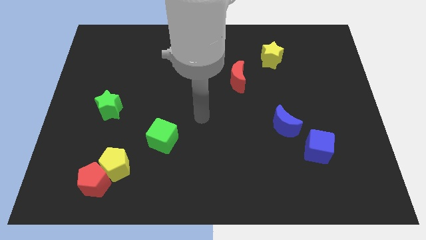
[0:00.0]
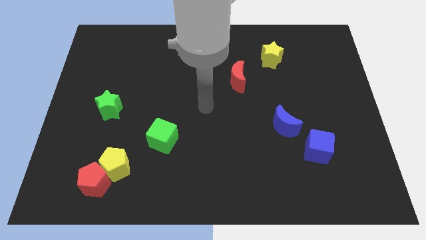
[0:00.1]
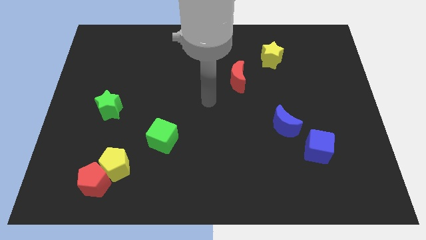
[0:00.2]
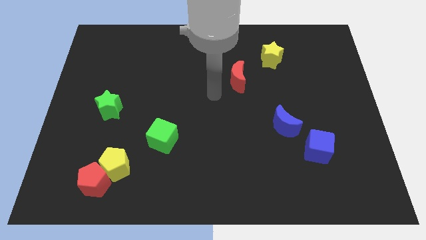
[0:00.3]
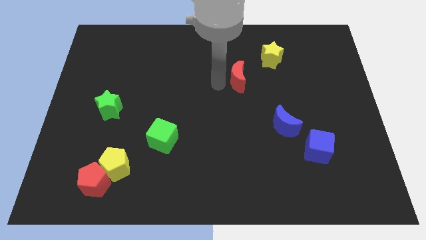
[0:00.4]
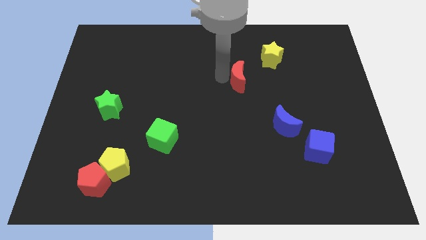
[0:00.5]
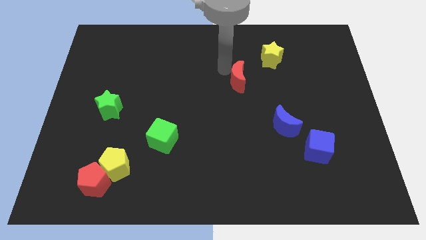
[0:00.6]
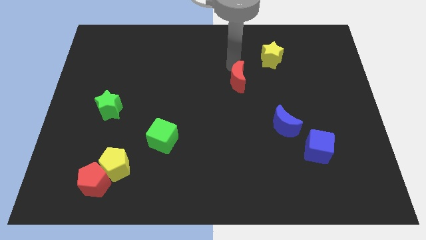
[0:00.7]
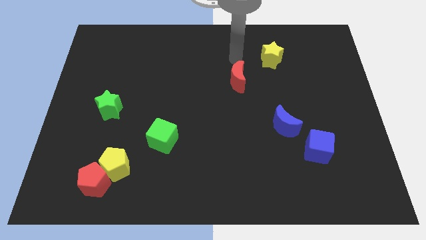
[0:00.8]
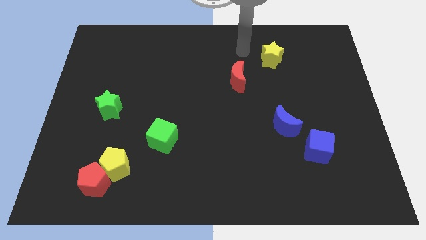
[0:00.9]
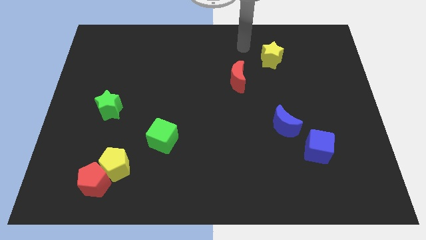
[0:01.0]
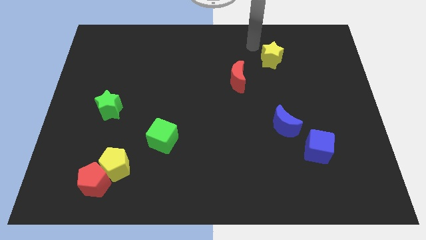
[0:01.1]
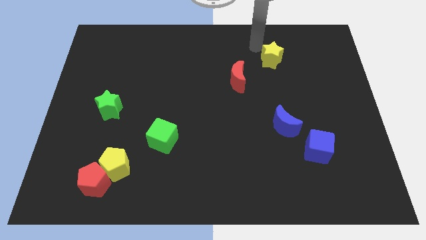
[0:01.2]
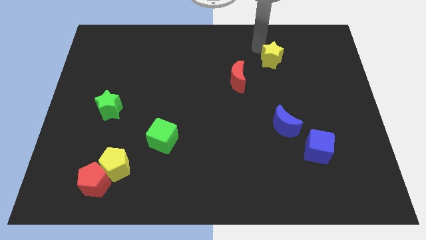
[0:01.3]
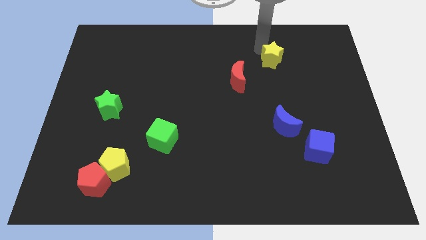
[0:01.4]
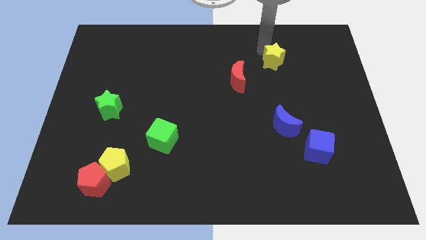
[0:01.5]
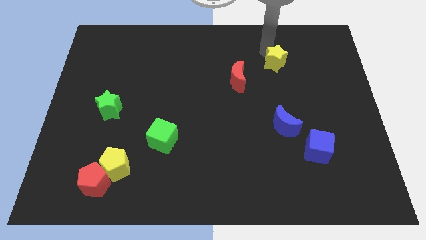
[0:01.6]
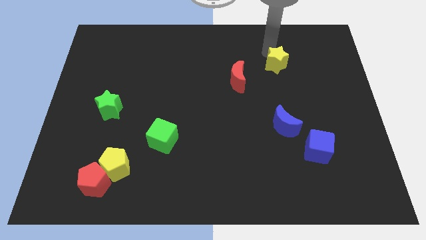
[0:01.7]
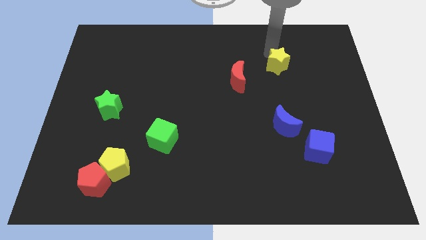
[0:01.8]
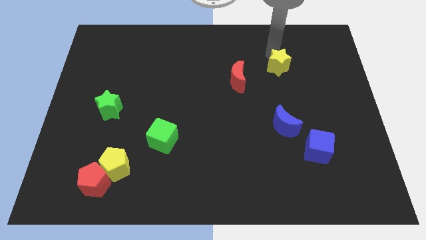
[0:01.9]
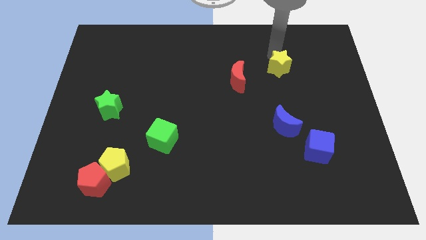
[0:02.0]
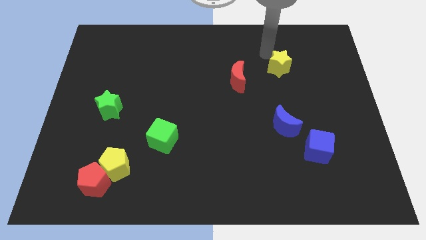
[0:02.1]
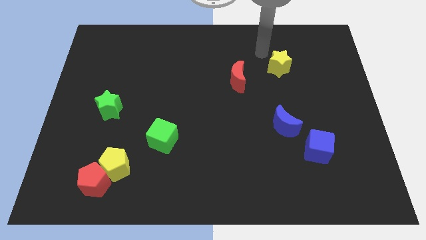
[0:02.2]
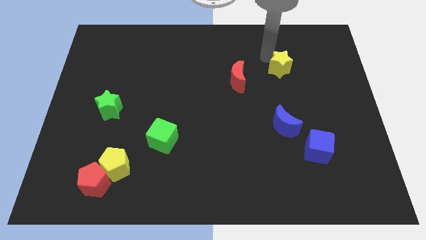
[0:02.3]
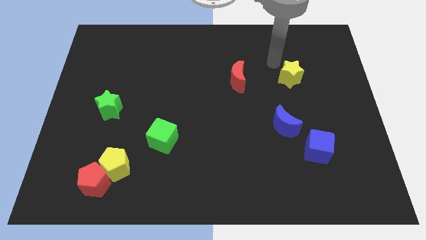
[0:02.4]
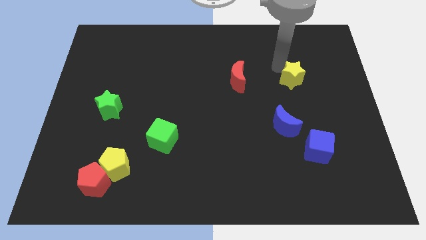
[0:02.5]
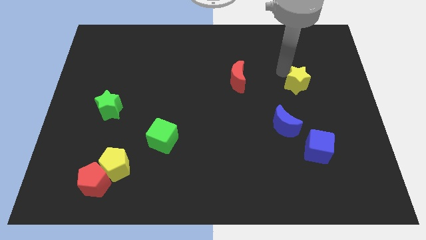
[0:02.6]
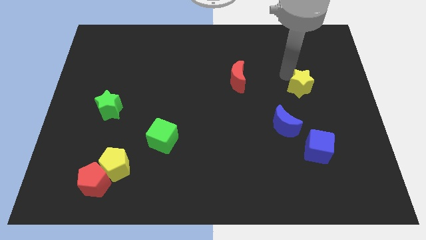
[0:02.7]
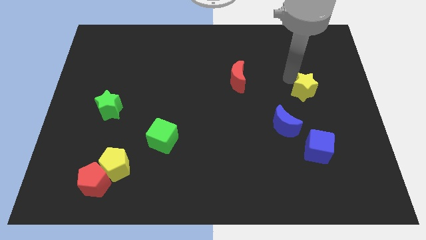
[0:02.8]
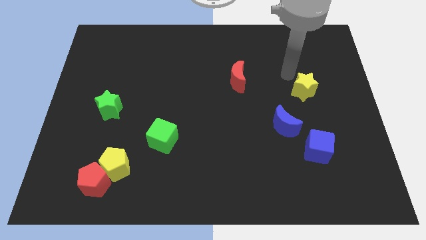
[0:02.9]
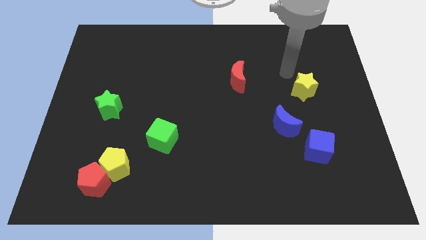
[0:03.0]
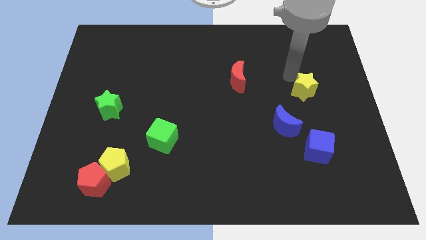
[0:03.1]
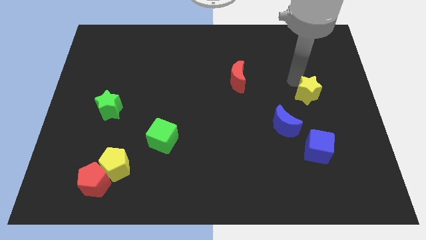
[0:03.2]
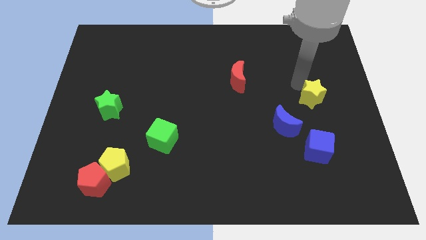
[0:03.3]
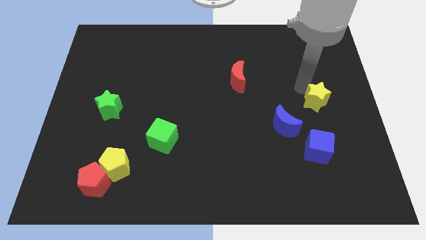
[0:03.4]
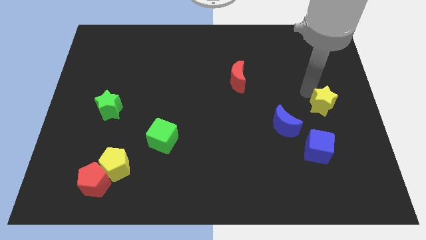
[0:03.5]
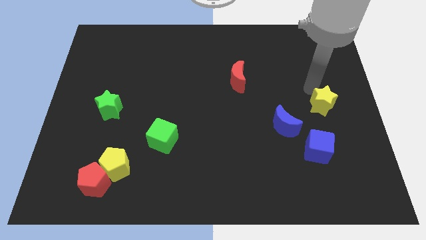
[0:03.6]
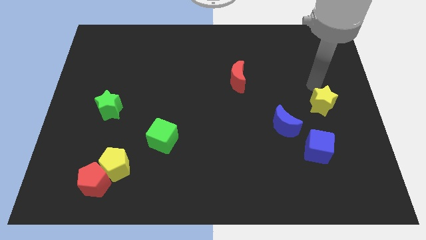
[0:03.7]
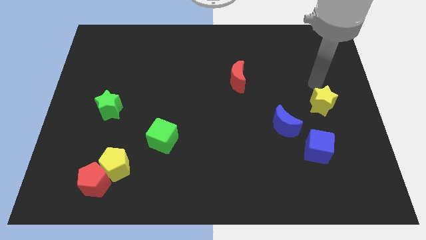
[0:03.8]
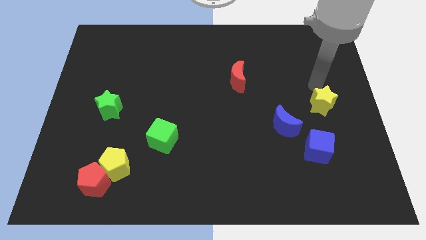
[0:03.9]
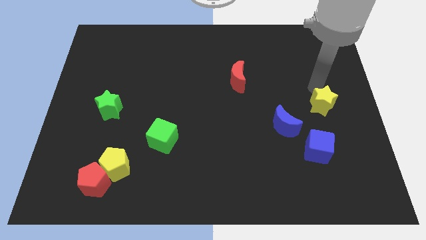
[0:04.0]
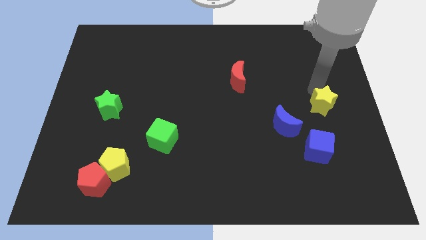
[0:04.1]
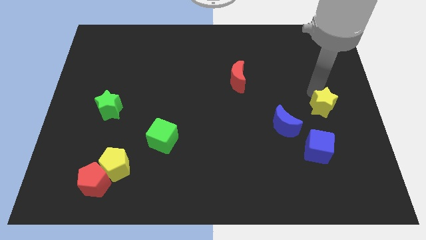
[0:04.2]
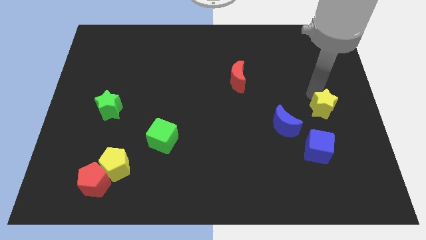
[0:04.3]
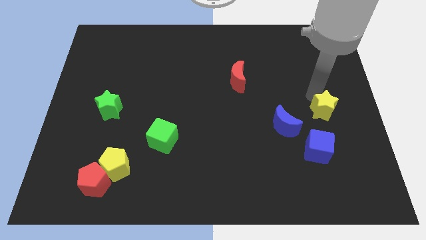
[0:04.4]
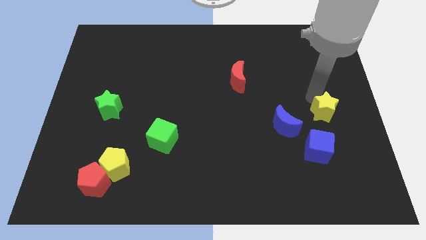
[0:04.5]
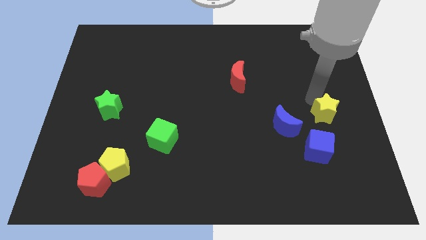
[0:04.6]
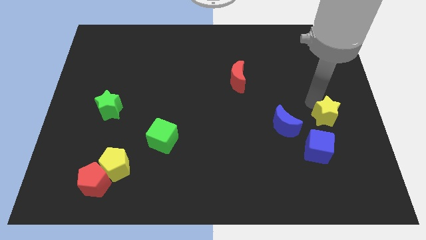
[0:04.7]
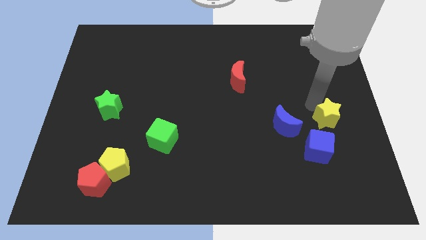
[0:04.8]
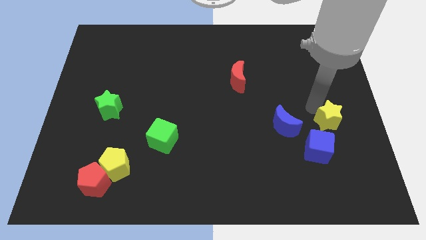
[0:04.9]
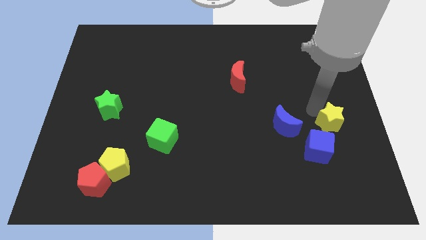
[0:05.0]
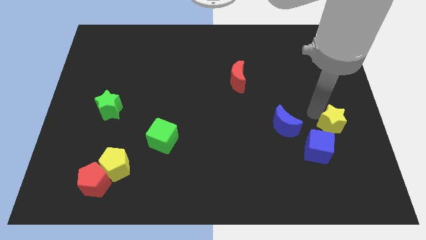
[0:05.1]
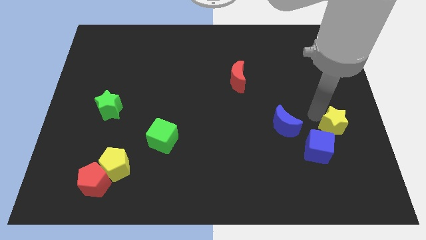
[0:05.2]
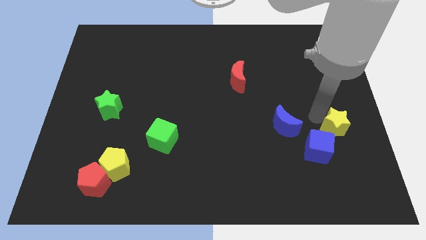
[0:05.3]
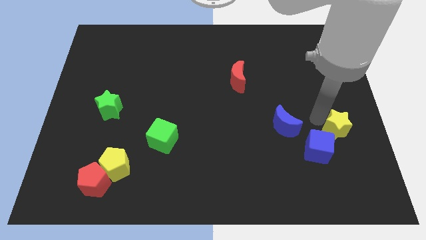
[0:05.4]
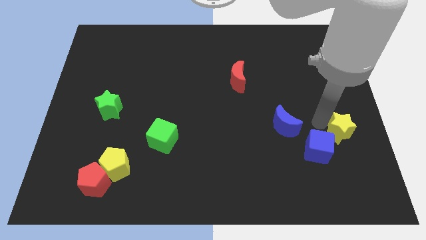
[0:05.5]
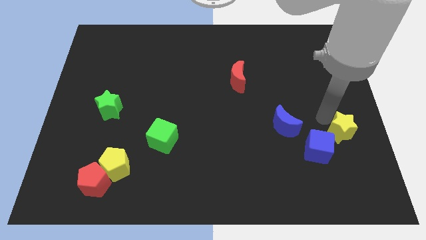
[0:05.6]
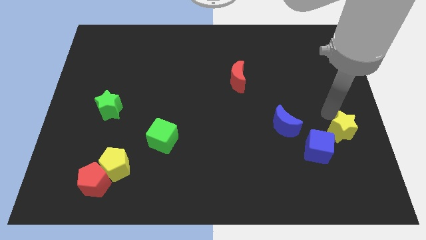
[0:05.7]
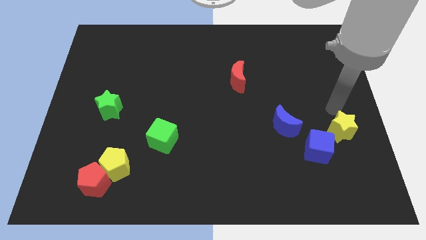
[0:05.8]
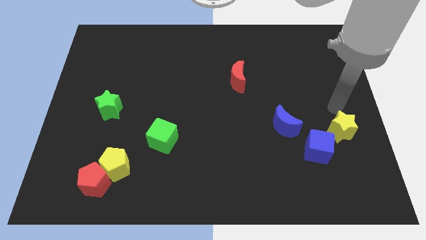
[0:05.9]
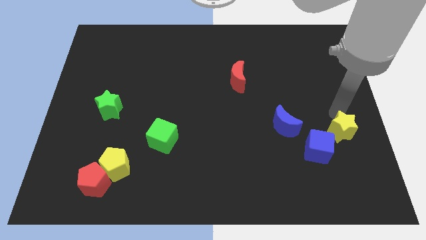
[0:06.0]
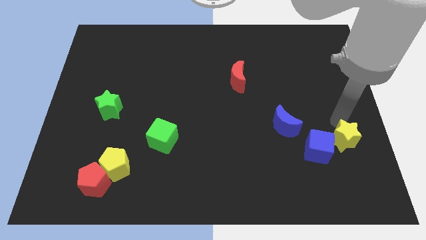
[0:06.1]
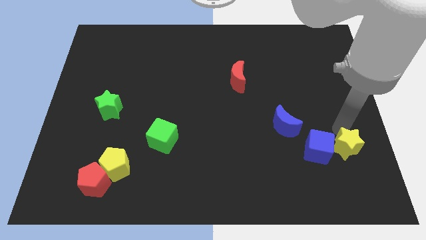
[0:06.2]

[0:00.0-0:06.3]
put the yellow star to the bottom right of the blue cube
